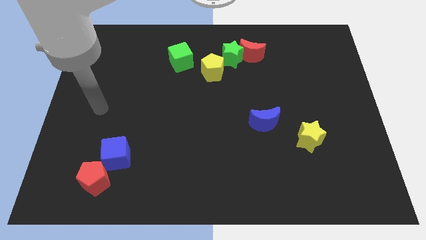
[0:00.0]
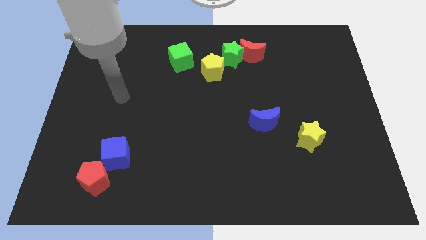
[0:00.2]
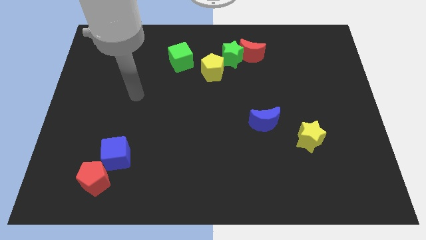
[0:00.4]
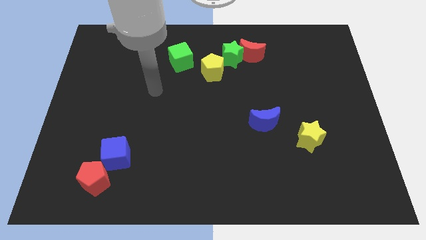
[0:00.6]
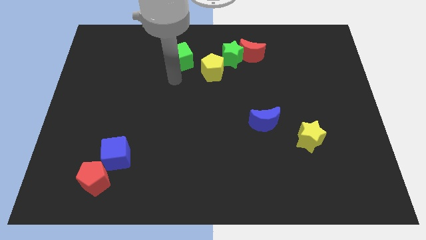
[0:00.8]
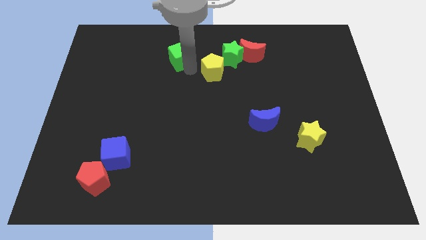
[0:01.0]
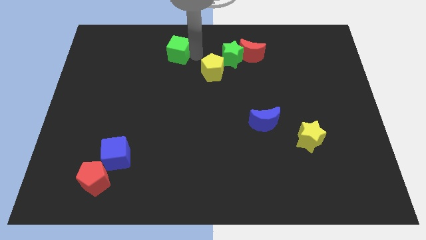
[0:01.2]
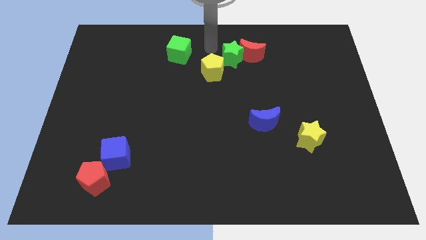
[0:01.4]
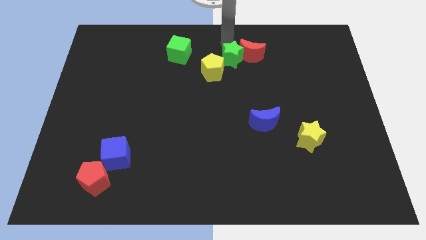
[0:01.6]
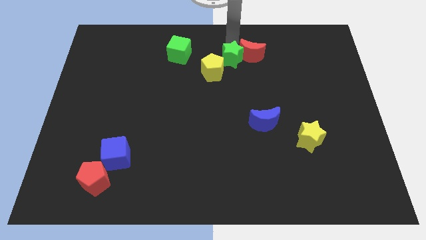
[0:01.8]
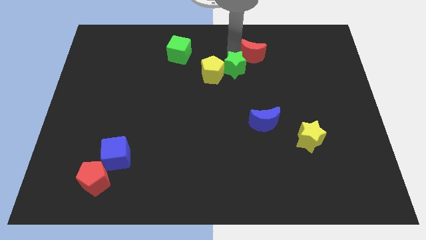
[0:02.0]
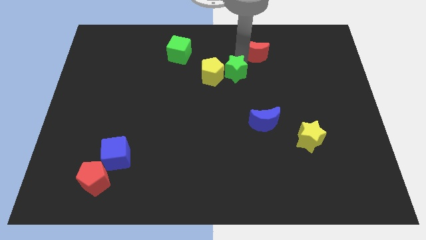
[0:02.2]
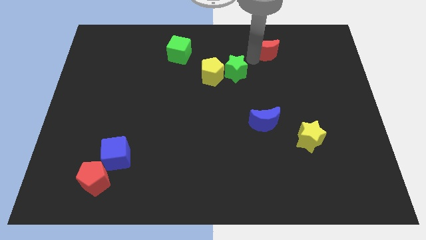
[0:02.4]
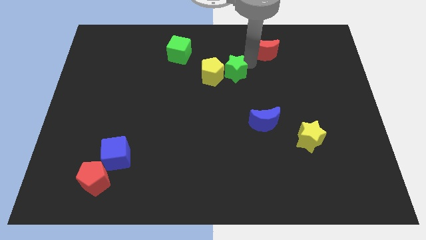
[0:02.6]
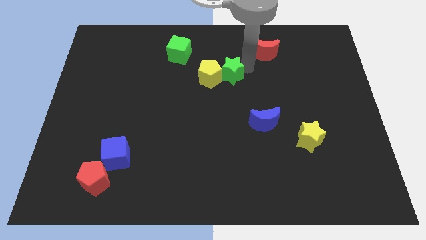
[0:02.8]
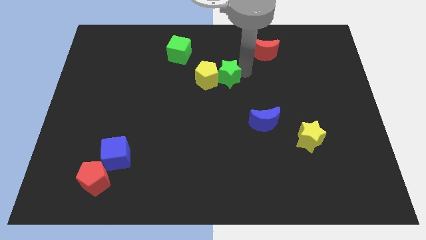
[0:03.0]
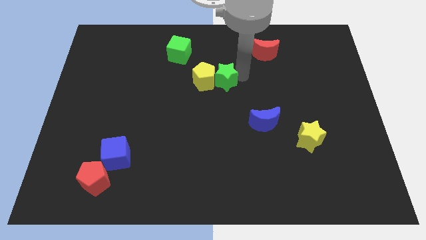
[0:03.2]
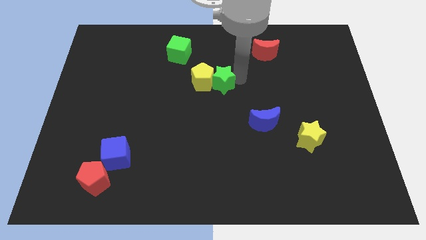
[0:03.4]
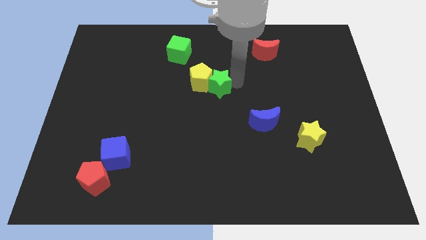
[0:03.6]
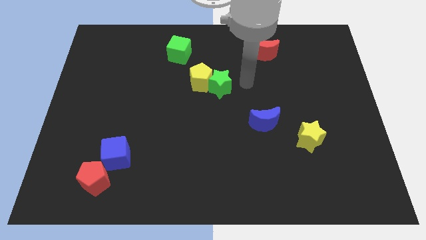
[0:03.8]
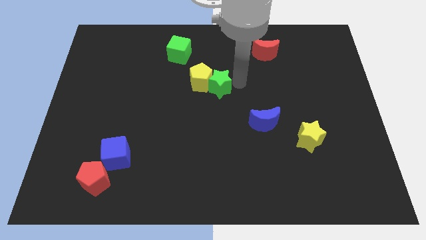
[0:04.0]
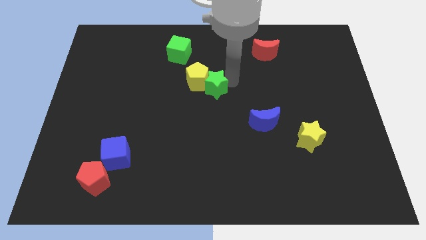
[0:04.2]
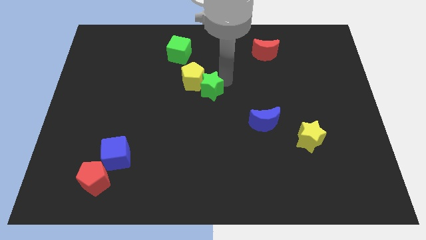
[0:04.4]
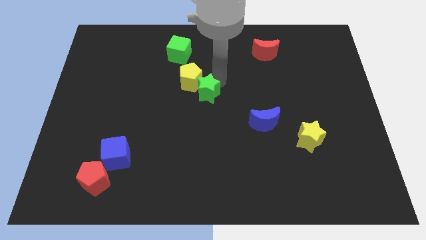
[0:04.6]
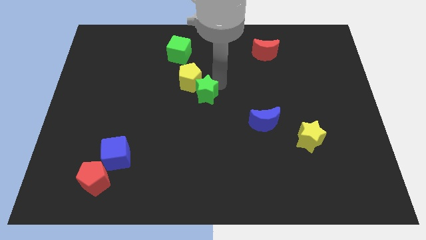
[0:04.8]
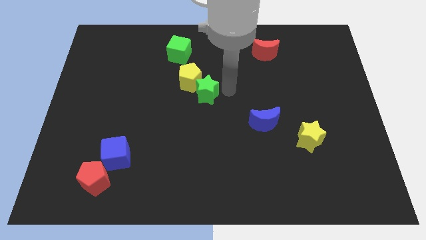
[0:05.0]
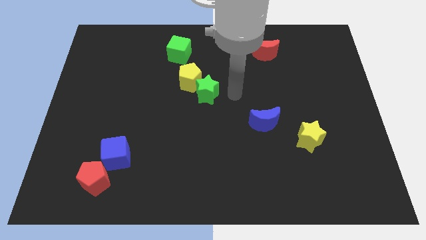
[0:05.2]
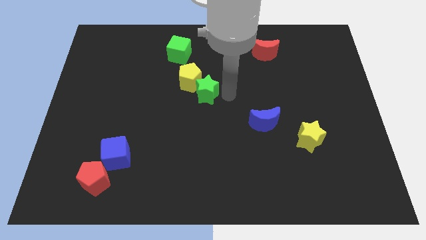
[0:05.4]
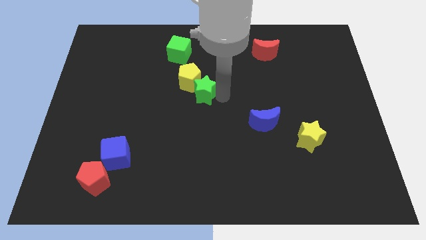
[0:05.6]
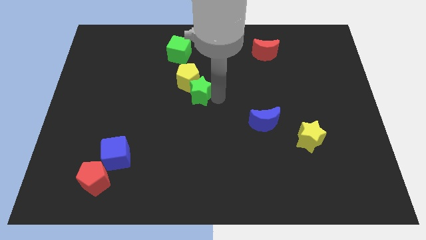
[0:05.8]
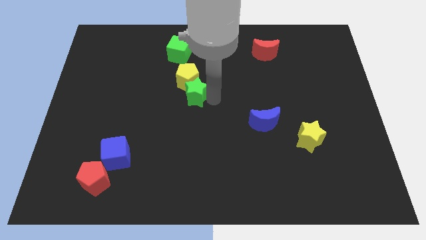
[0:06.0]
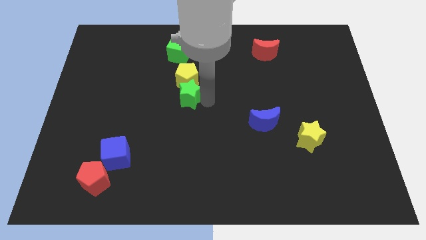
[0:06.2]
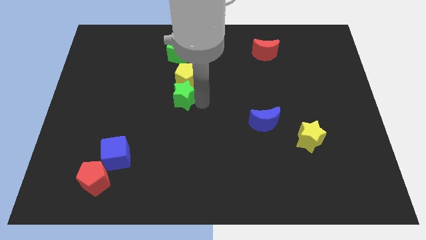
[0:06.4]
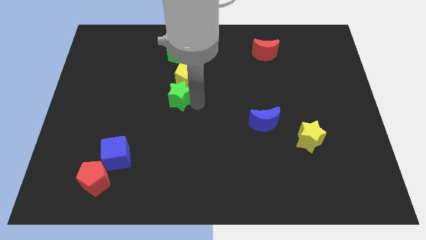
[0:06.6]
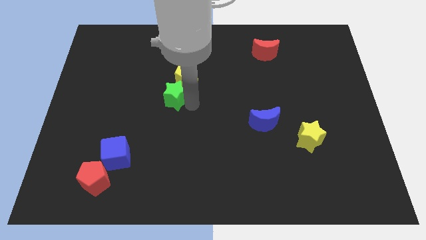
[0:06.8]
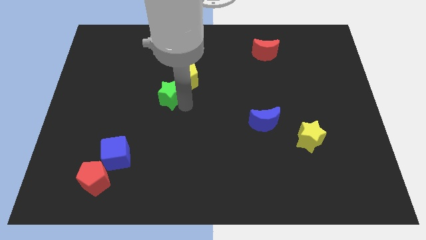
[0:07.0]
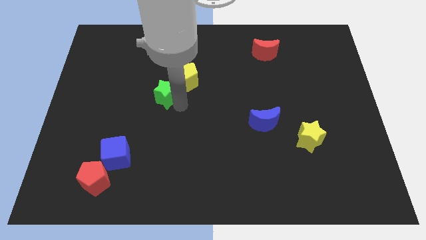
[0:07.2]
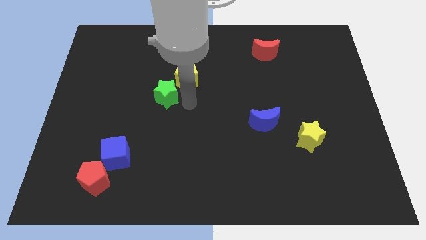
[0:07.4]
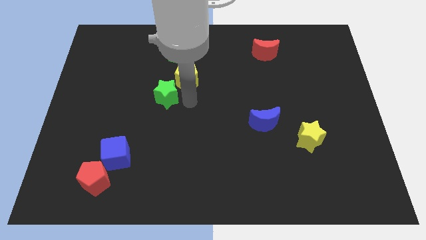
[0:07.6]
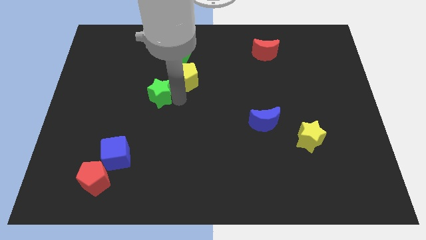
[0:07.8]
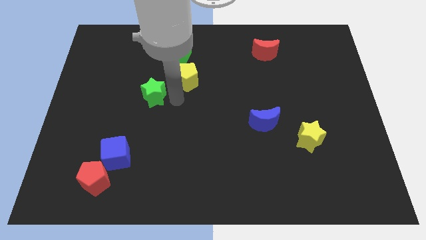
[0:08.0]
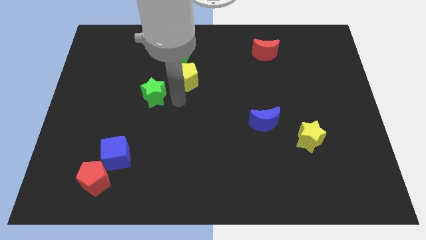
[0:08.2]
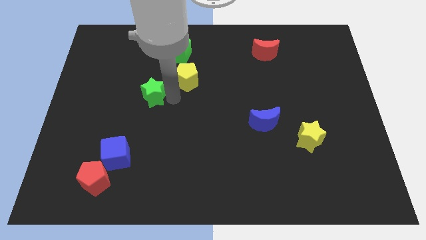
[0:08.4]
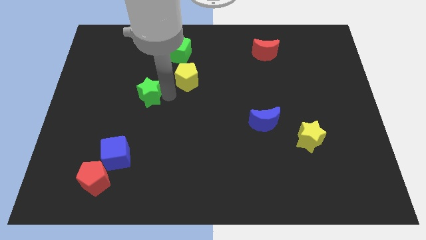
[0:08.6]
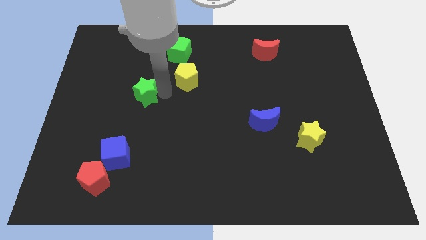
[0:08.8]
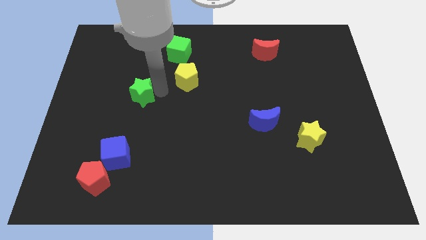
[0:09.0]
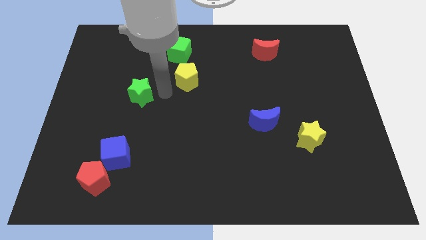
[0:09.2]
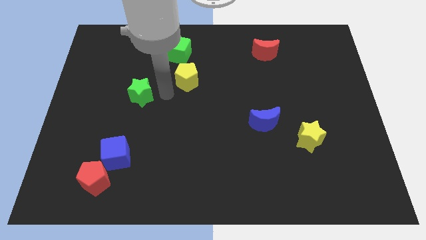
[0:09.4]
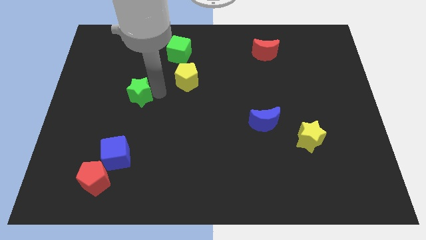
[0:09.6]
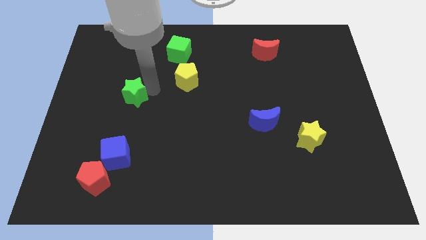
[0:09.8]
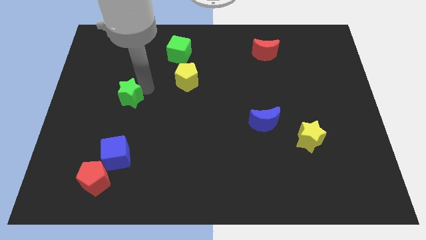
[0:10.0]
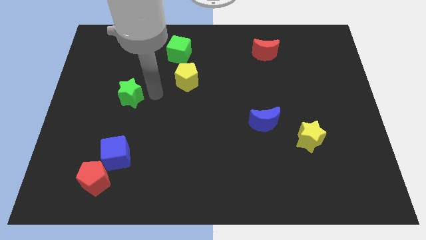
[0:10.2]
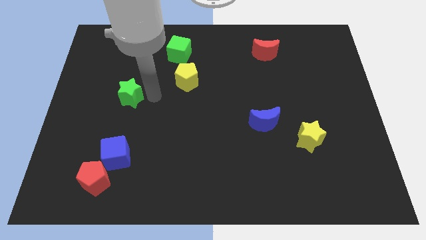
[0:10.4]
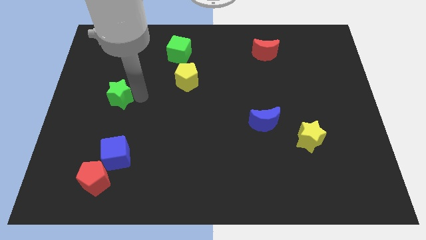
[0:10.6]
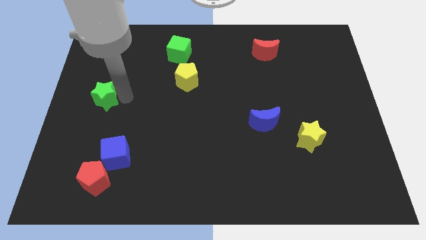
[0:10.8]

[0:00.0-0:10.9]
push the green star to the center left

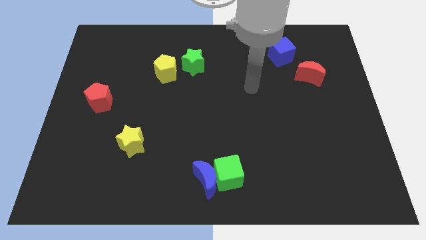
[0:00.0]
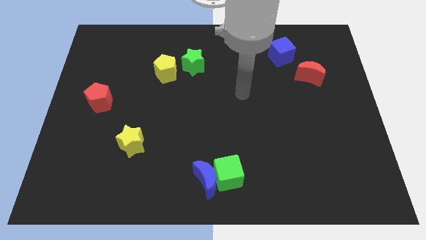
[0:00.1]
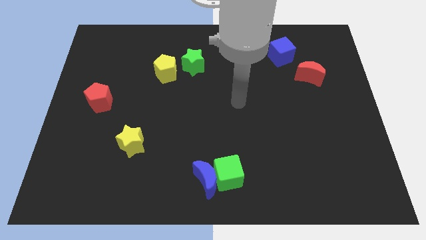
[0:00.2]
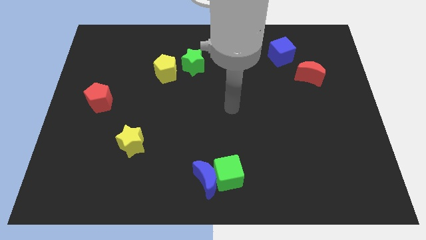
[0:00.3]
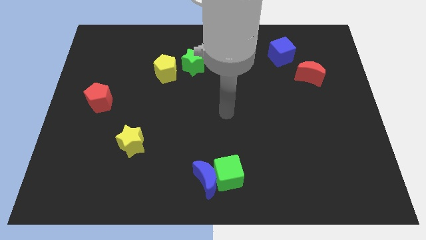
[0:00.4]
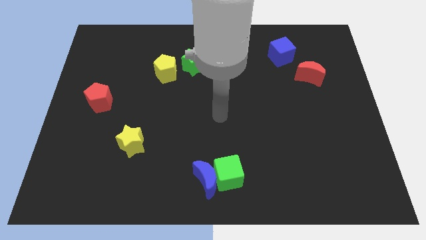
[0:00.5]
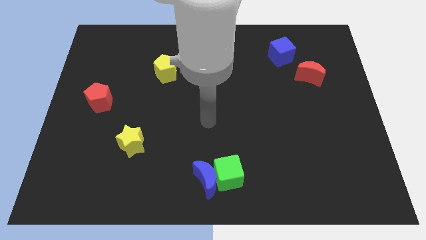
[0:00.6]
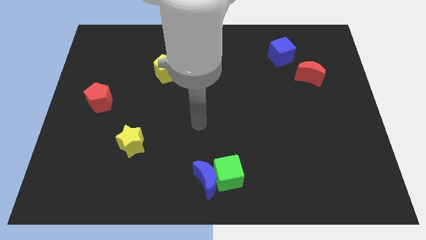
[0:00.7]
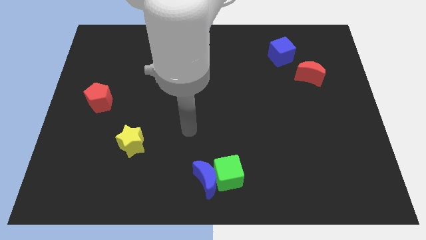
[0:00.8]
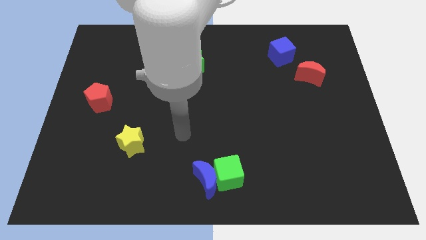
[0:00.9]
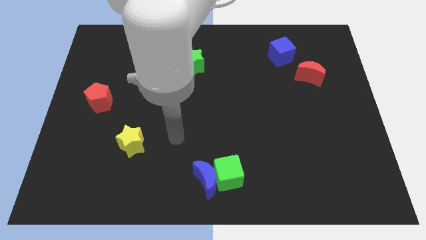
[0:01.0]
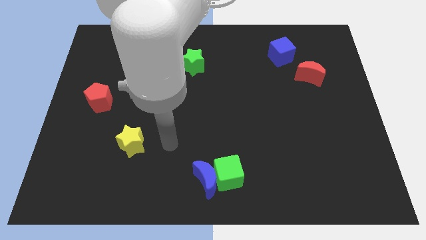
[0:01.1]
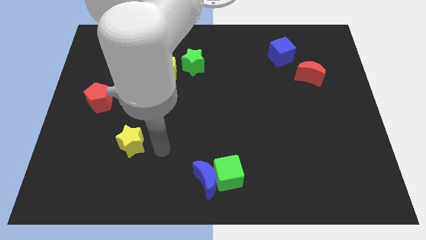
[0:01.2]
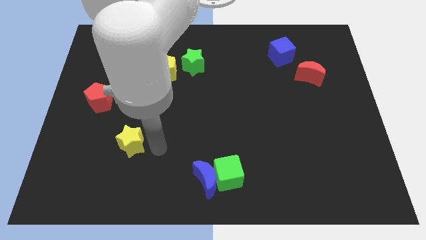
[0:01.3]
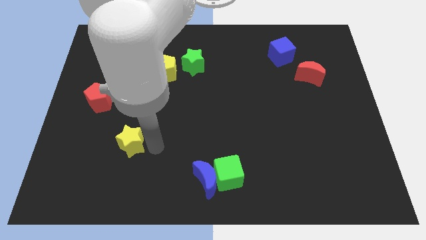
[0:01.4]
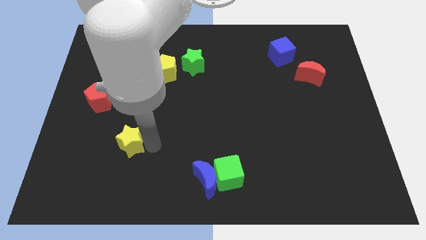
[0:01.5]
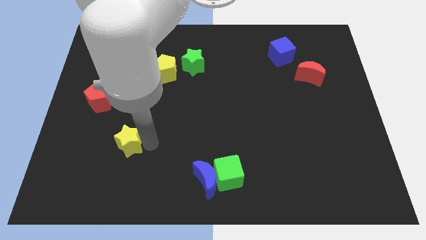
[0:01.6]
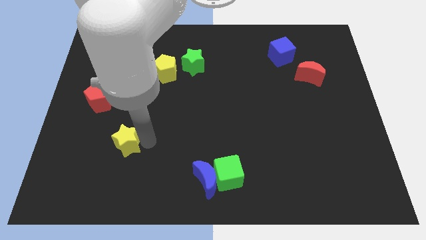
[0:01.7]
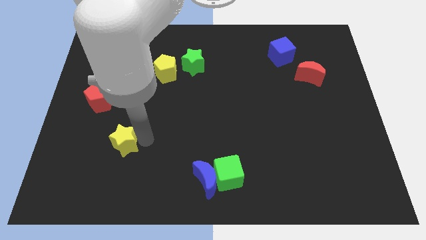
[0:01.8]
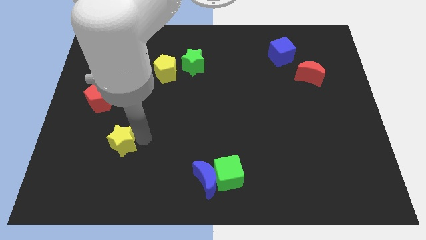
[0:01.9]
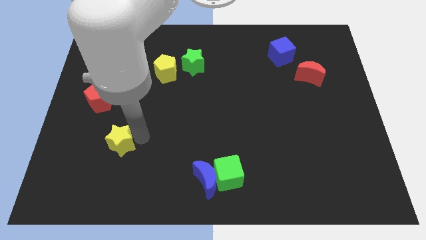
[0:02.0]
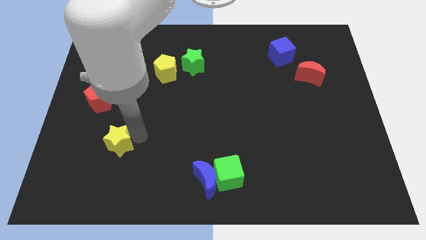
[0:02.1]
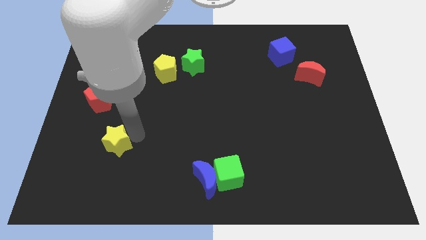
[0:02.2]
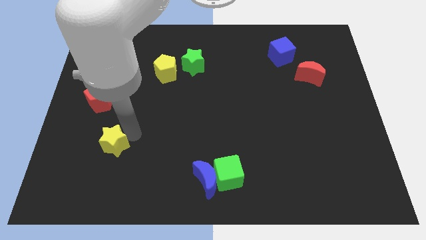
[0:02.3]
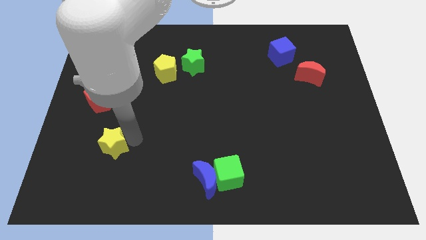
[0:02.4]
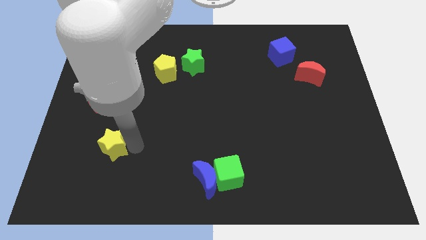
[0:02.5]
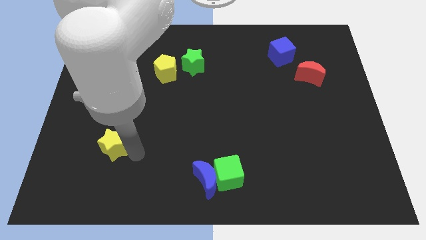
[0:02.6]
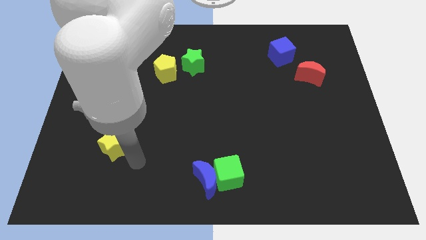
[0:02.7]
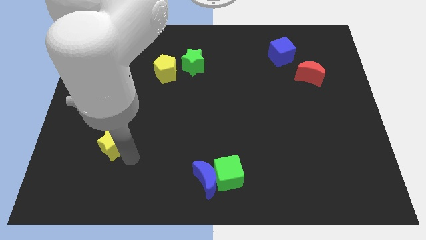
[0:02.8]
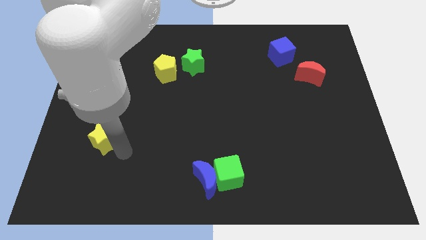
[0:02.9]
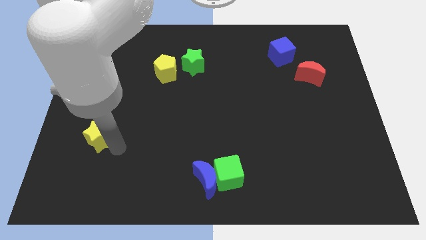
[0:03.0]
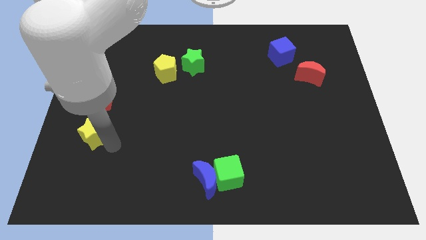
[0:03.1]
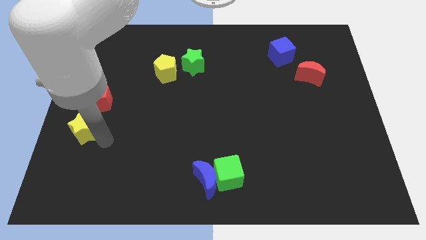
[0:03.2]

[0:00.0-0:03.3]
slide the yellow star to the left side
